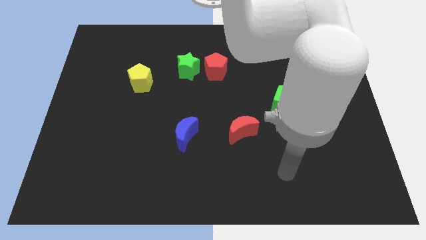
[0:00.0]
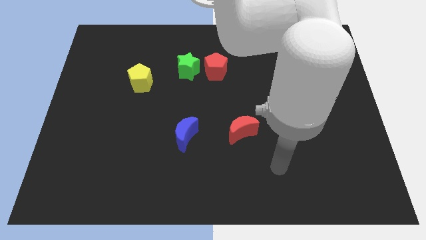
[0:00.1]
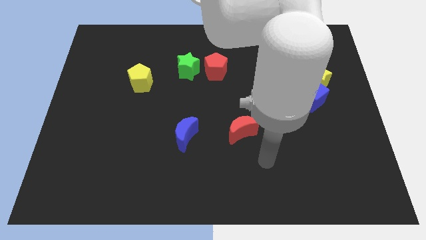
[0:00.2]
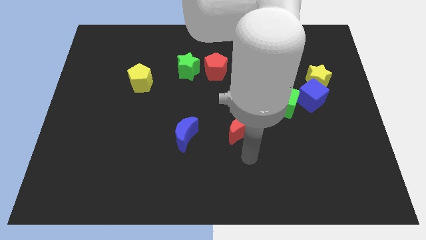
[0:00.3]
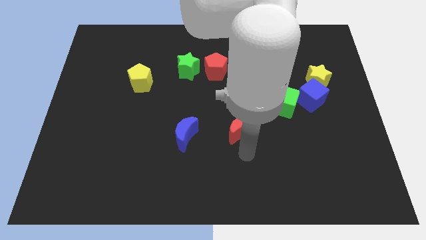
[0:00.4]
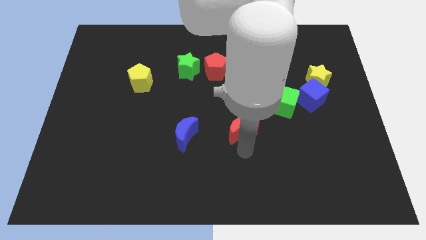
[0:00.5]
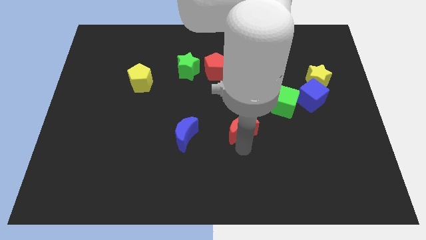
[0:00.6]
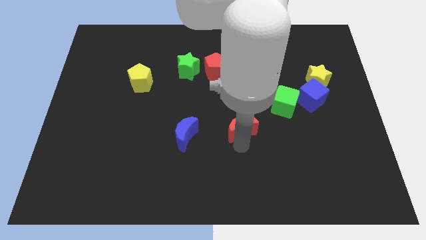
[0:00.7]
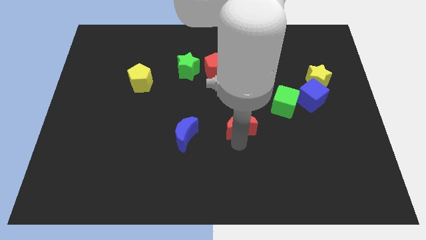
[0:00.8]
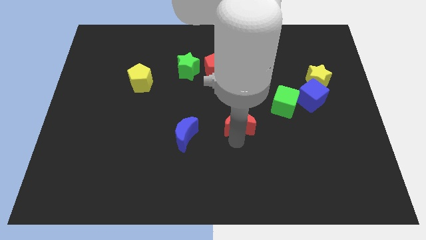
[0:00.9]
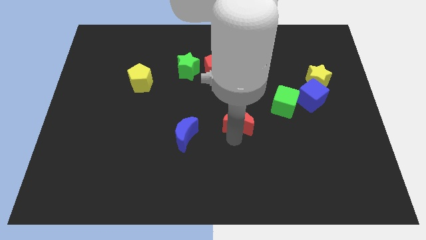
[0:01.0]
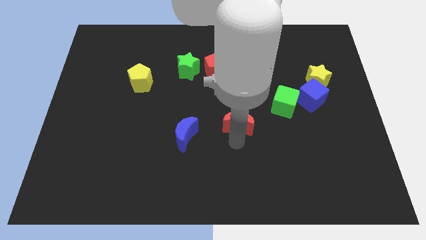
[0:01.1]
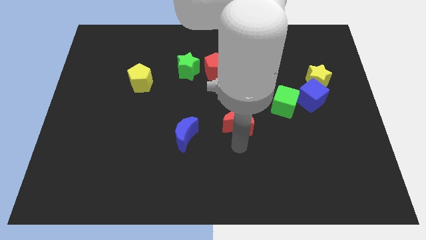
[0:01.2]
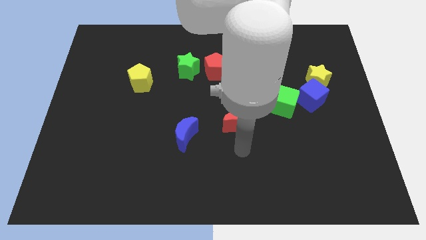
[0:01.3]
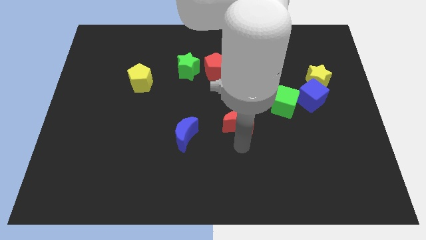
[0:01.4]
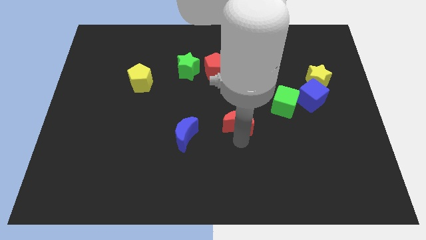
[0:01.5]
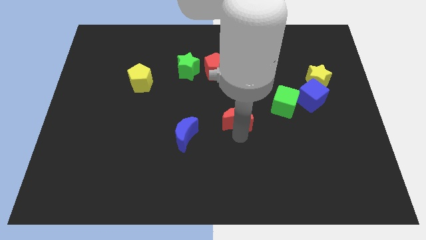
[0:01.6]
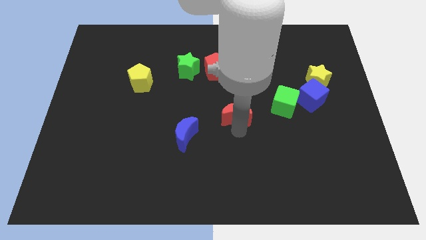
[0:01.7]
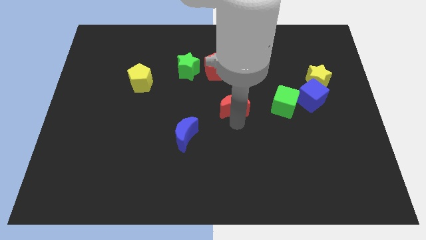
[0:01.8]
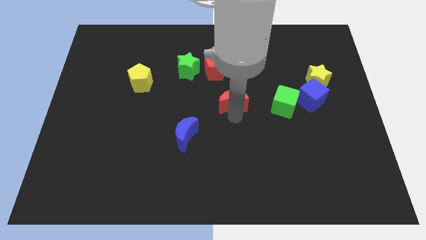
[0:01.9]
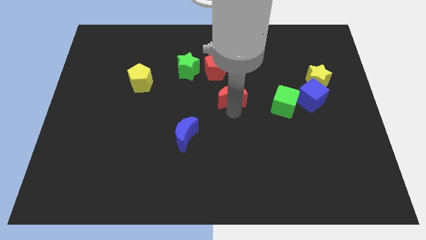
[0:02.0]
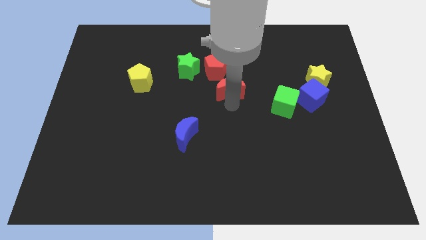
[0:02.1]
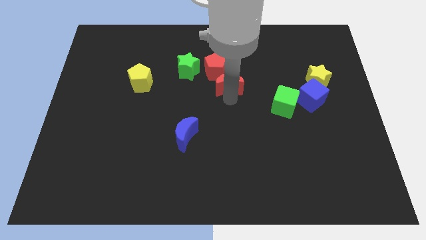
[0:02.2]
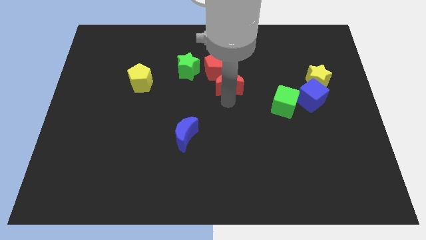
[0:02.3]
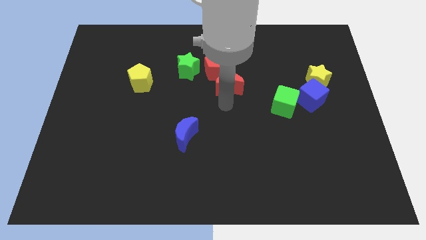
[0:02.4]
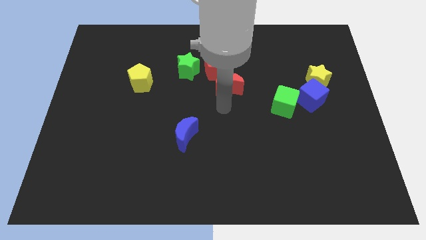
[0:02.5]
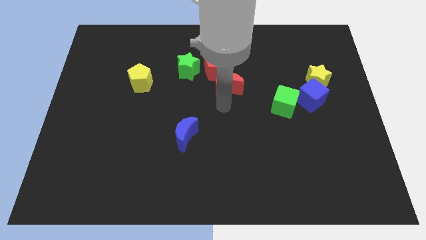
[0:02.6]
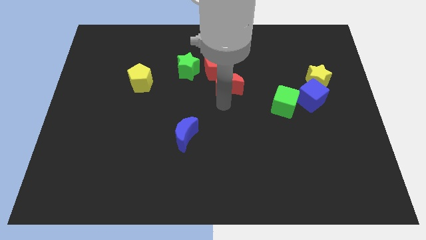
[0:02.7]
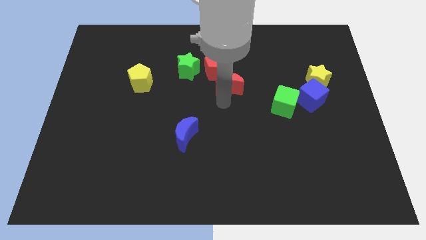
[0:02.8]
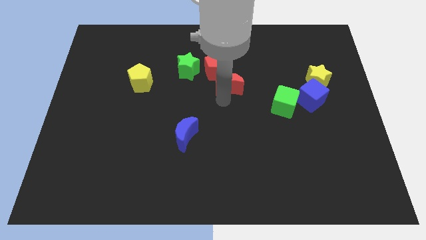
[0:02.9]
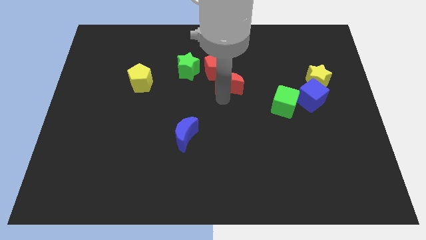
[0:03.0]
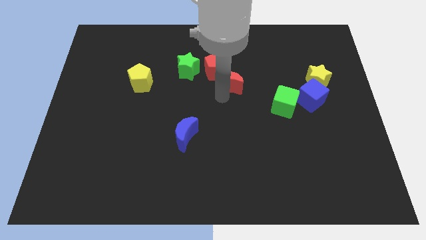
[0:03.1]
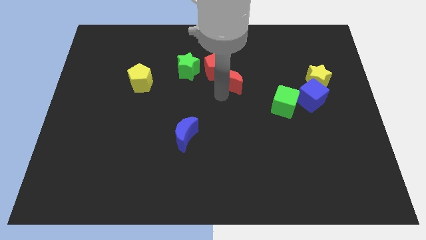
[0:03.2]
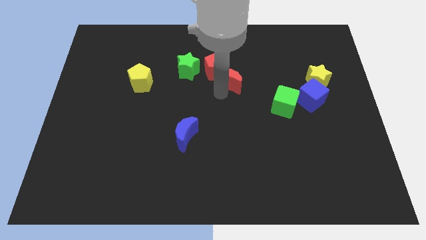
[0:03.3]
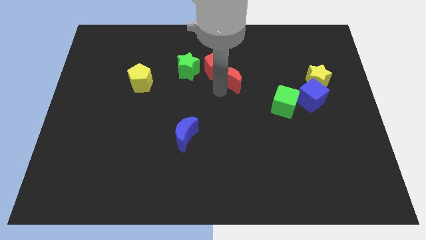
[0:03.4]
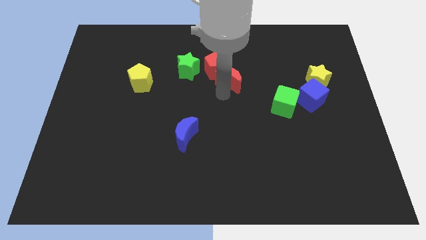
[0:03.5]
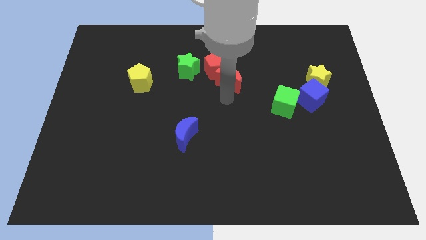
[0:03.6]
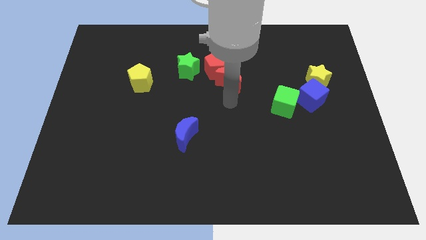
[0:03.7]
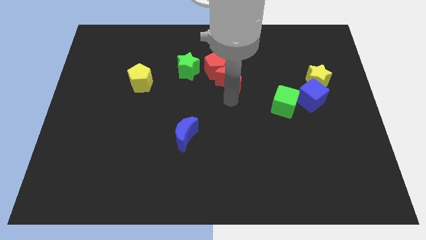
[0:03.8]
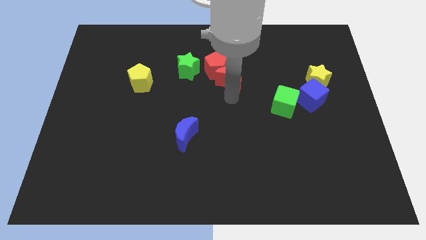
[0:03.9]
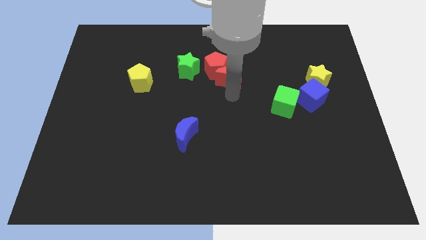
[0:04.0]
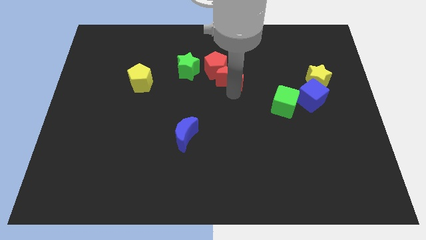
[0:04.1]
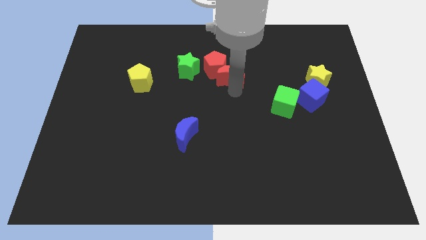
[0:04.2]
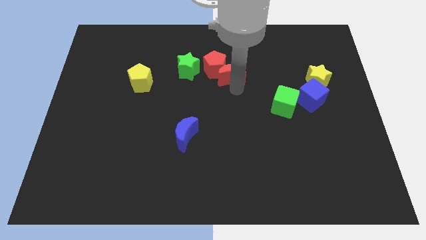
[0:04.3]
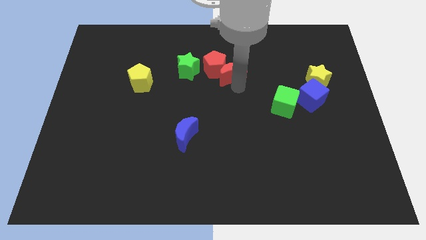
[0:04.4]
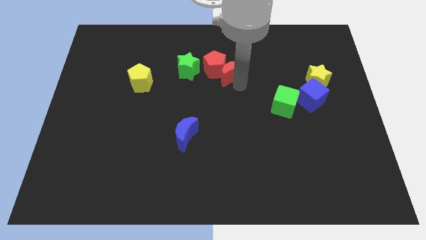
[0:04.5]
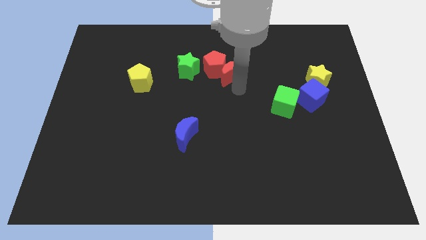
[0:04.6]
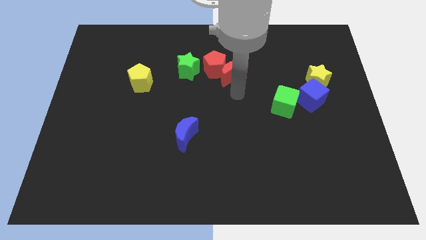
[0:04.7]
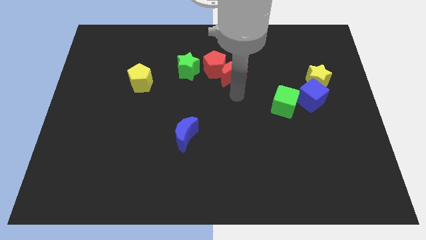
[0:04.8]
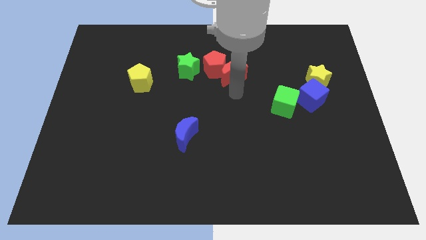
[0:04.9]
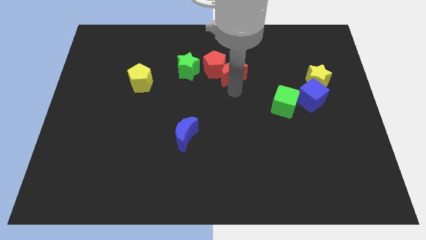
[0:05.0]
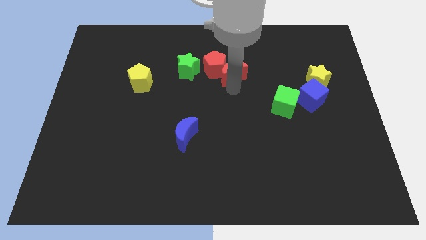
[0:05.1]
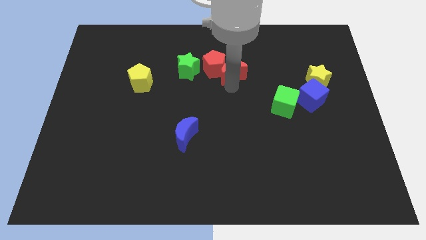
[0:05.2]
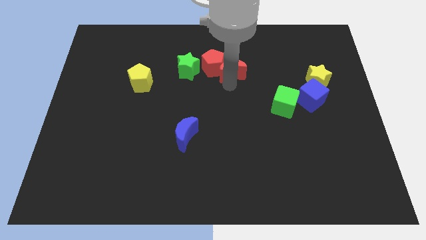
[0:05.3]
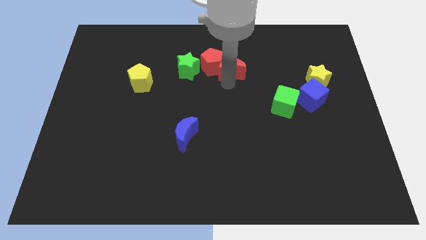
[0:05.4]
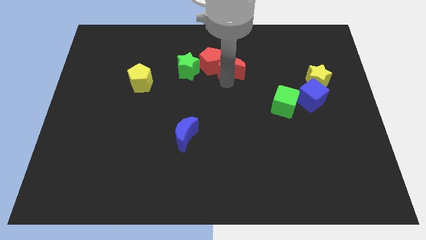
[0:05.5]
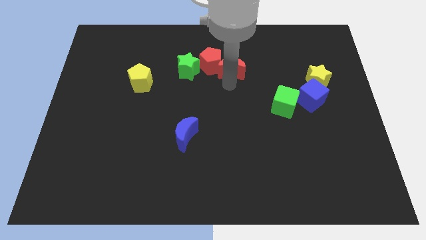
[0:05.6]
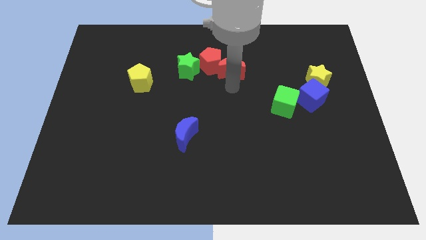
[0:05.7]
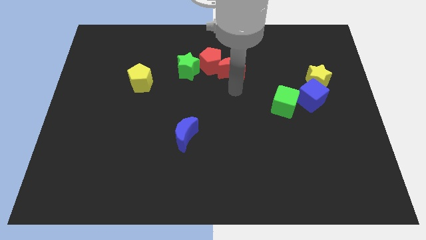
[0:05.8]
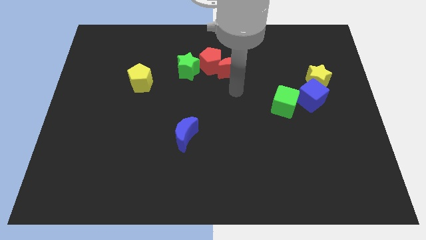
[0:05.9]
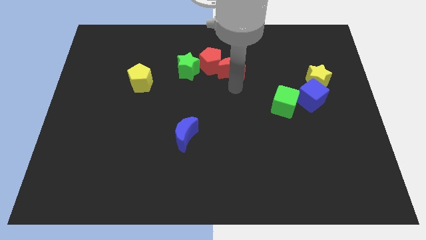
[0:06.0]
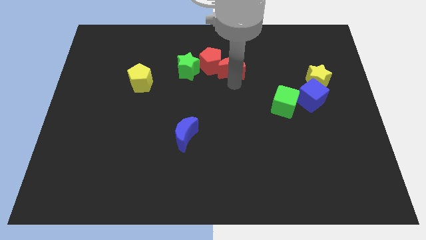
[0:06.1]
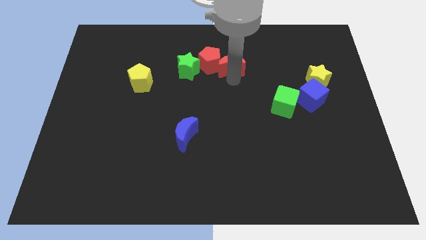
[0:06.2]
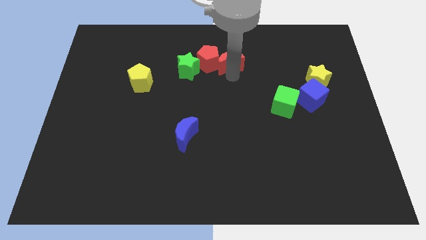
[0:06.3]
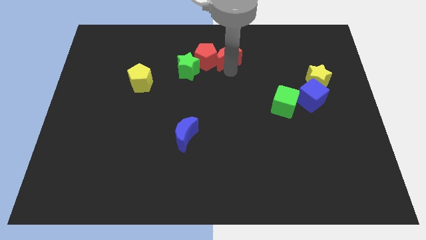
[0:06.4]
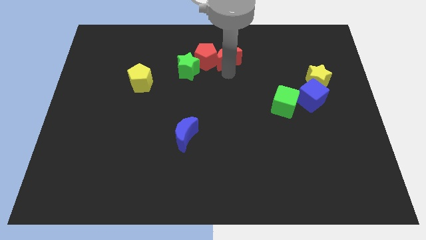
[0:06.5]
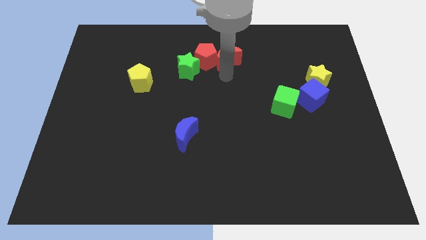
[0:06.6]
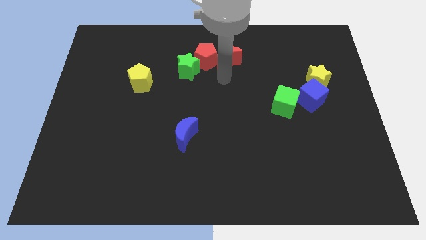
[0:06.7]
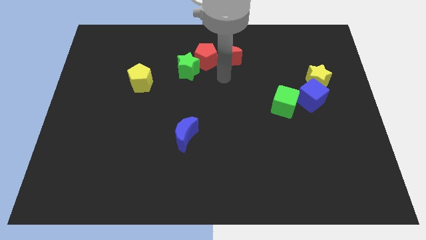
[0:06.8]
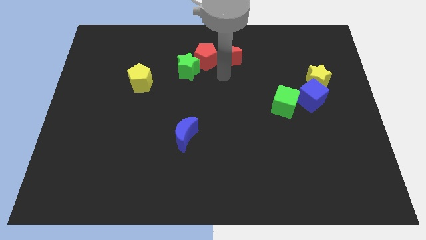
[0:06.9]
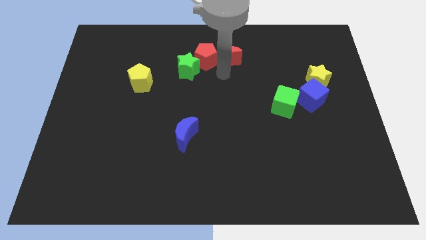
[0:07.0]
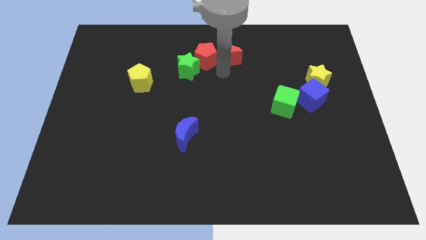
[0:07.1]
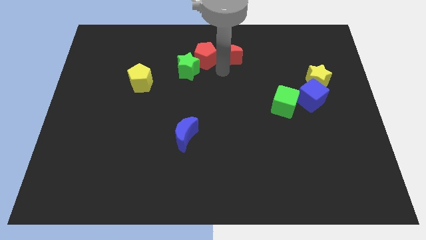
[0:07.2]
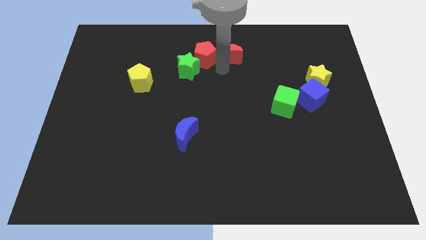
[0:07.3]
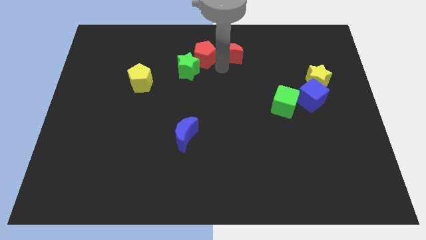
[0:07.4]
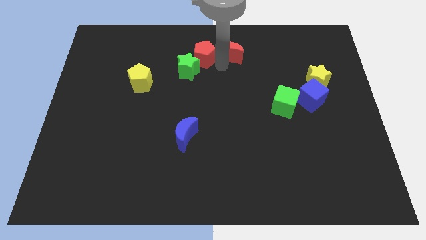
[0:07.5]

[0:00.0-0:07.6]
push the red moon to the towards your base
